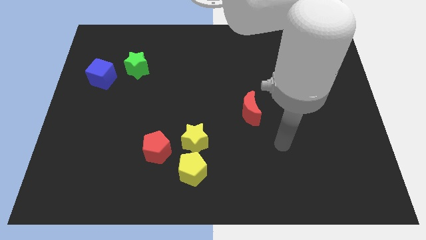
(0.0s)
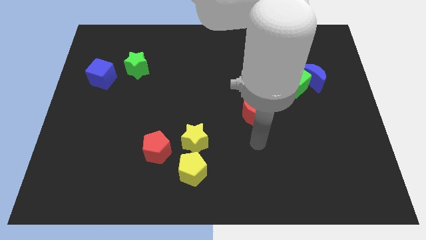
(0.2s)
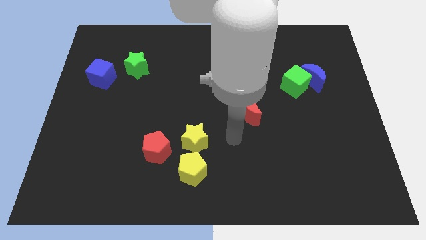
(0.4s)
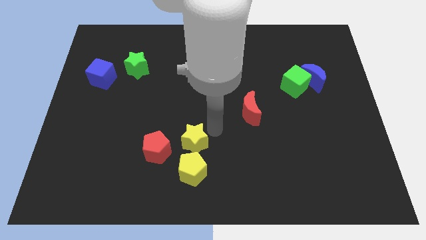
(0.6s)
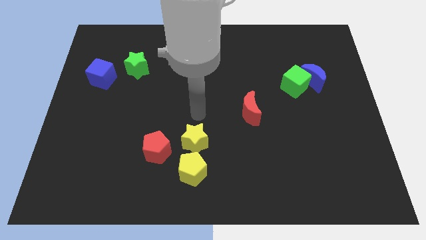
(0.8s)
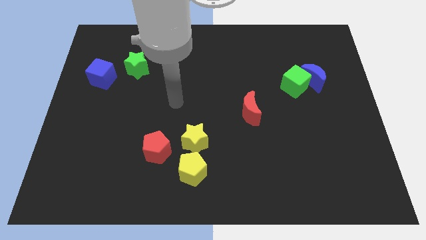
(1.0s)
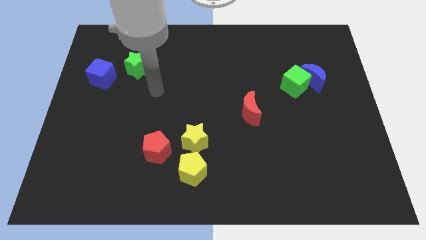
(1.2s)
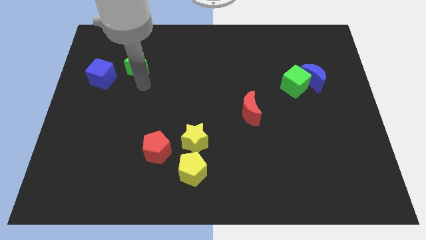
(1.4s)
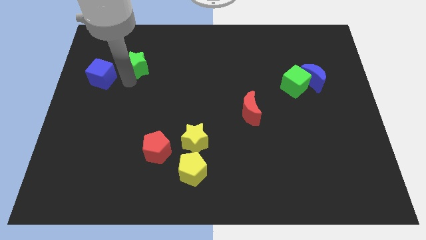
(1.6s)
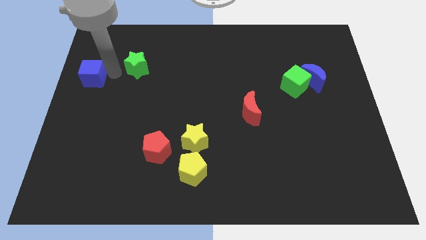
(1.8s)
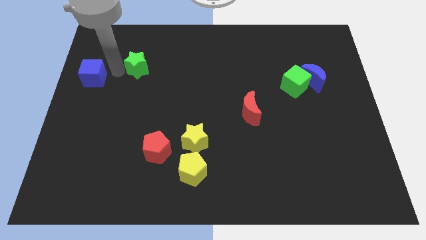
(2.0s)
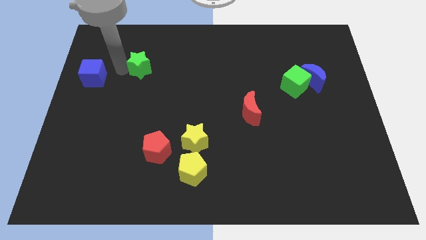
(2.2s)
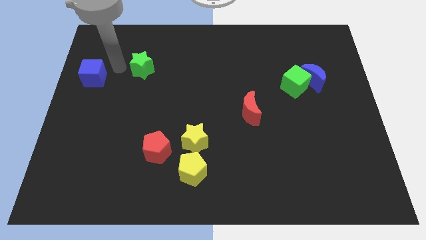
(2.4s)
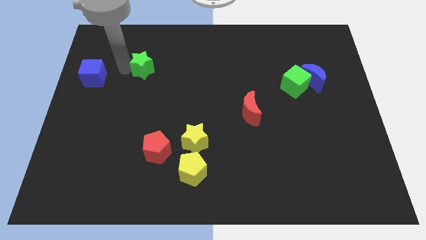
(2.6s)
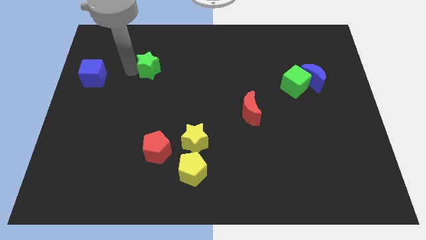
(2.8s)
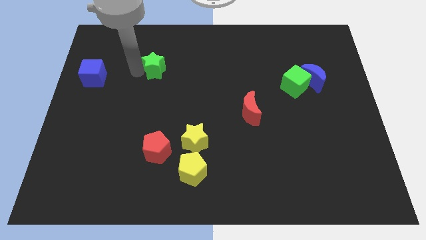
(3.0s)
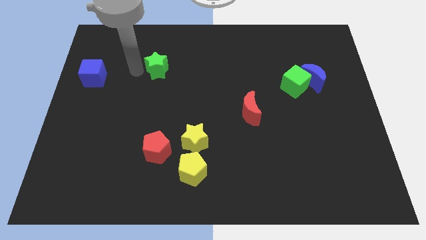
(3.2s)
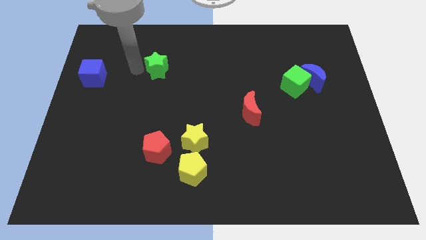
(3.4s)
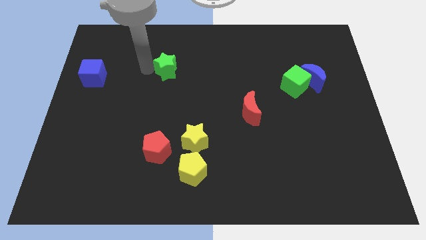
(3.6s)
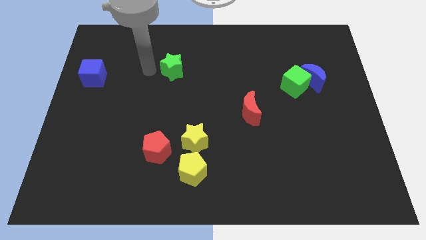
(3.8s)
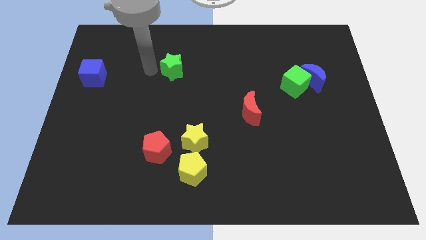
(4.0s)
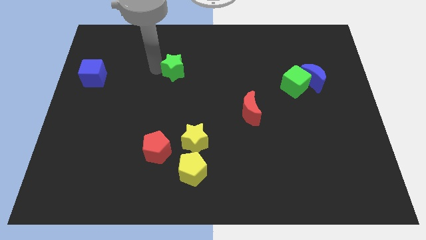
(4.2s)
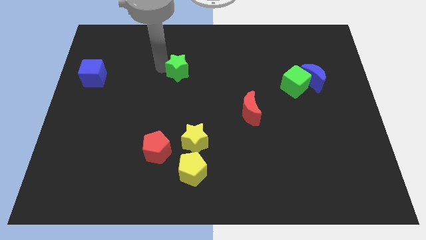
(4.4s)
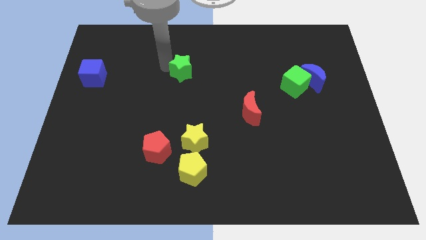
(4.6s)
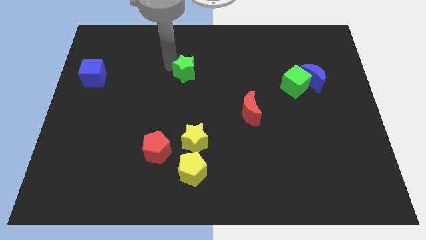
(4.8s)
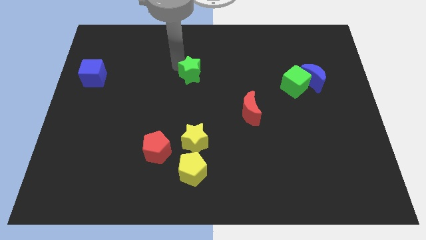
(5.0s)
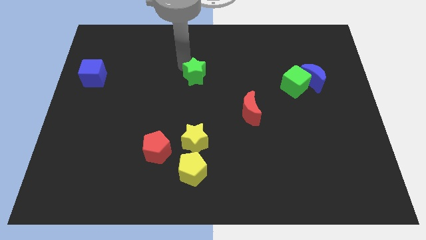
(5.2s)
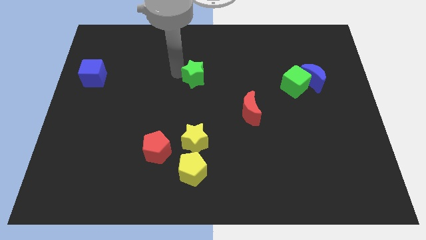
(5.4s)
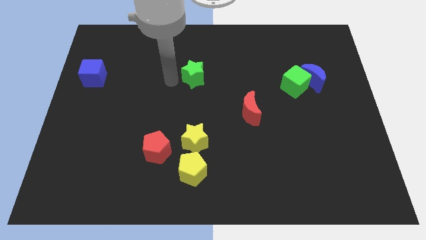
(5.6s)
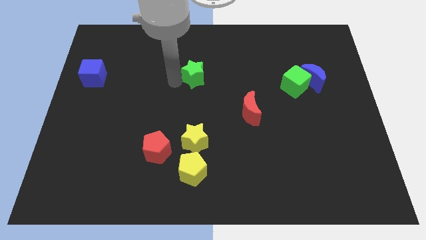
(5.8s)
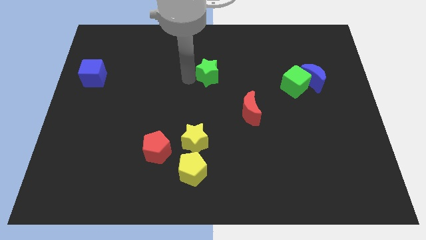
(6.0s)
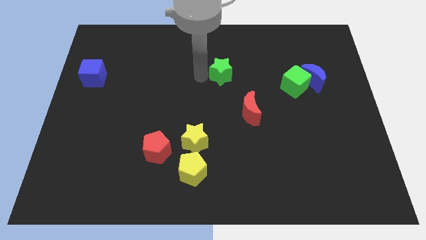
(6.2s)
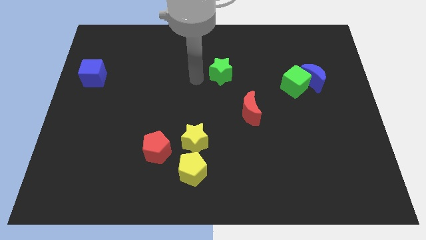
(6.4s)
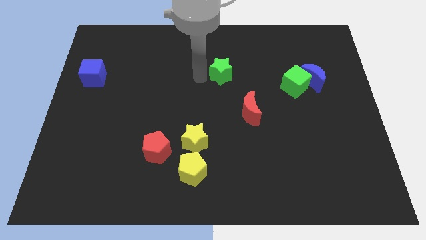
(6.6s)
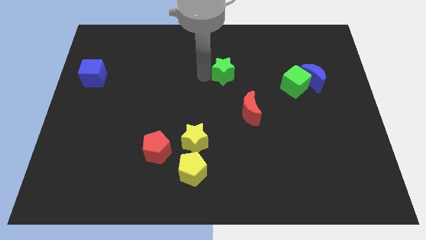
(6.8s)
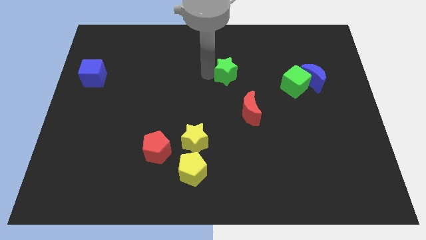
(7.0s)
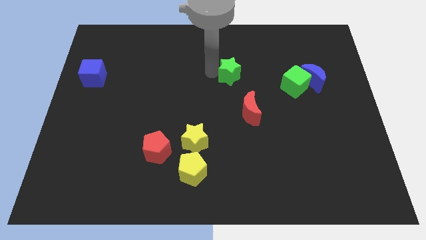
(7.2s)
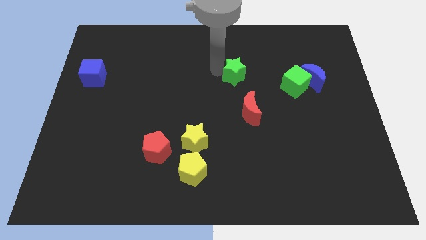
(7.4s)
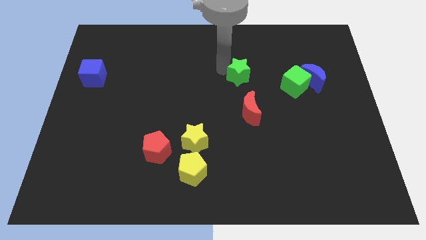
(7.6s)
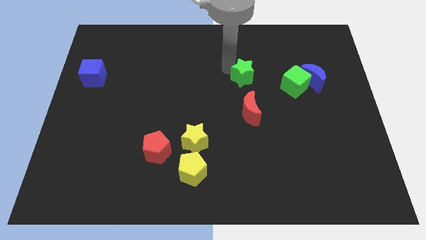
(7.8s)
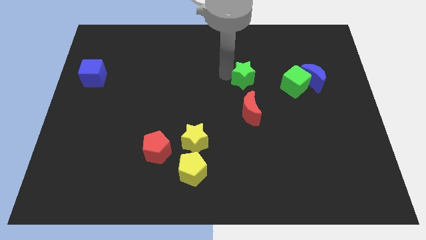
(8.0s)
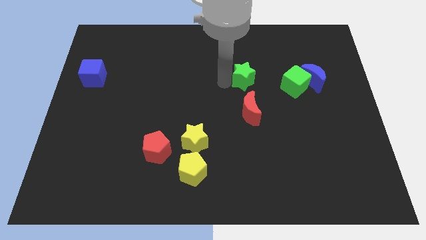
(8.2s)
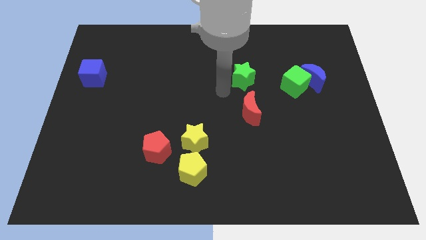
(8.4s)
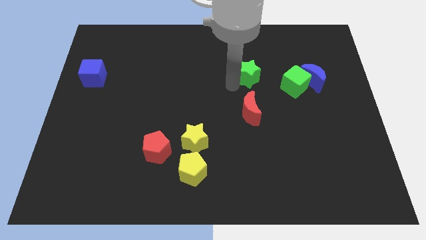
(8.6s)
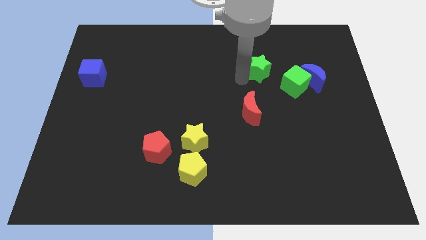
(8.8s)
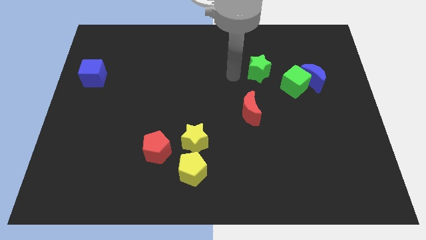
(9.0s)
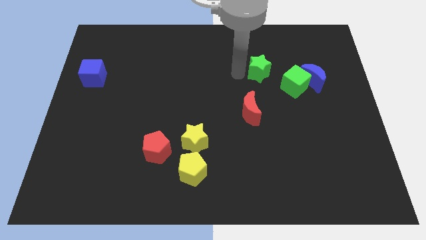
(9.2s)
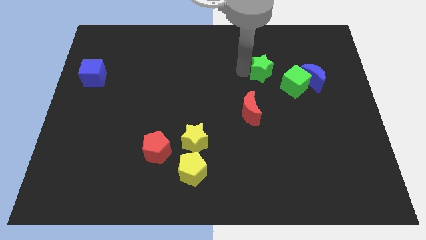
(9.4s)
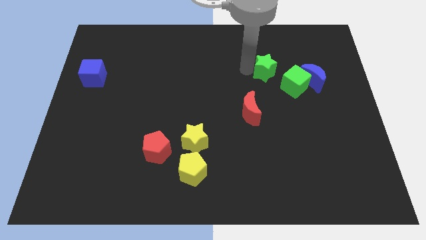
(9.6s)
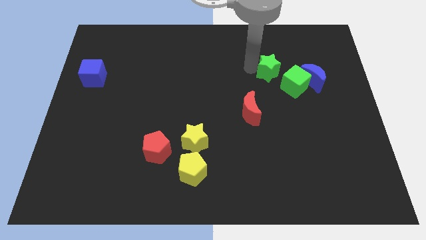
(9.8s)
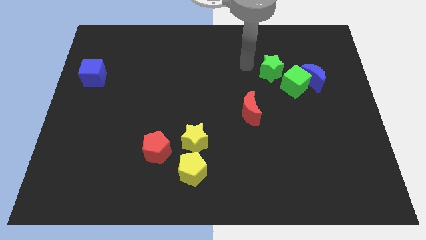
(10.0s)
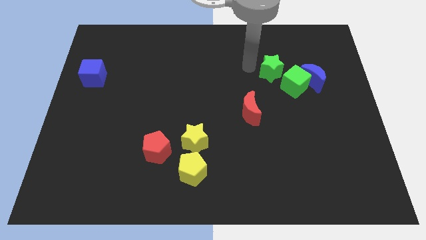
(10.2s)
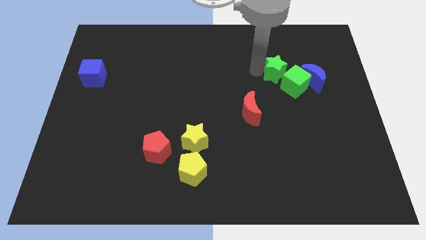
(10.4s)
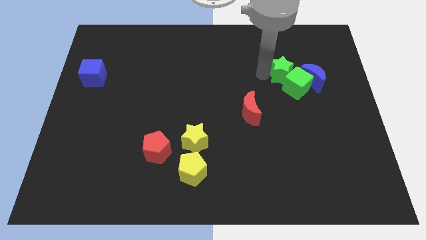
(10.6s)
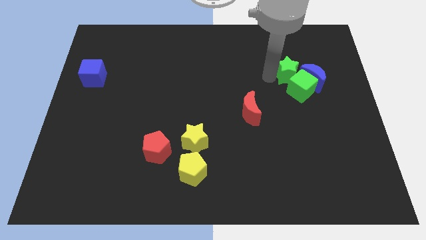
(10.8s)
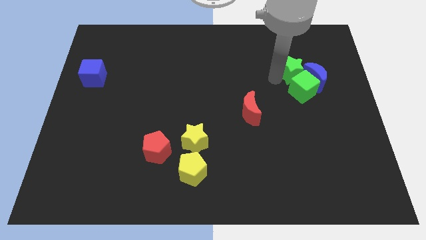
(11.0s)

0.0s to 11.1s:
slide the green star to the blue moon
